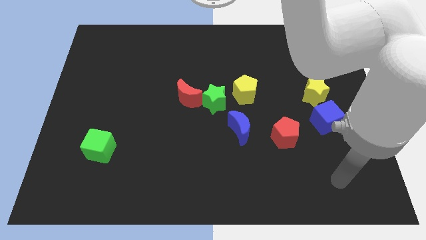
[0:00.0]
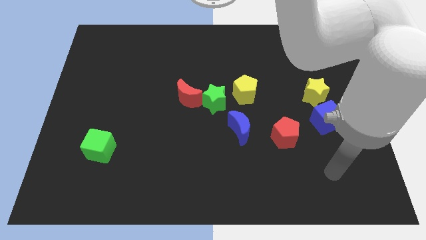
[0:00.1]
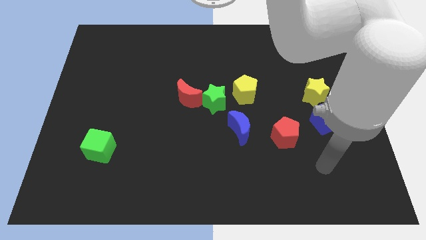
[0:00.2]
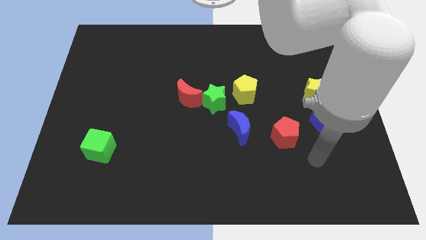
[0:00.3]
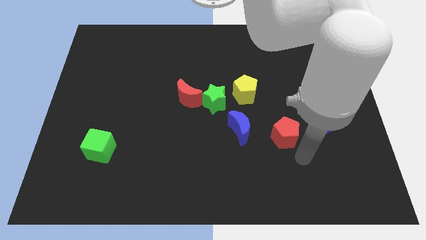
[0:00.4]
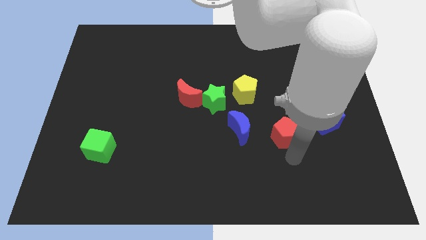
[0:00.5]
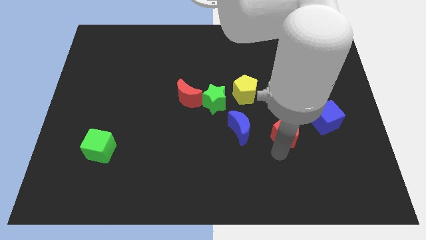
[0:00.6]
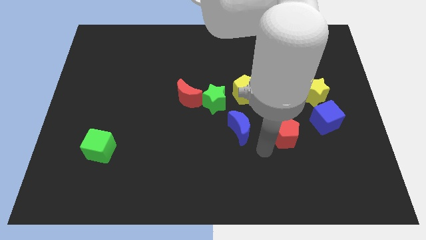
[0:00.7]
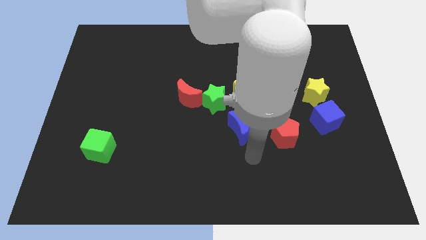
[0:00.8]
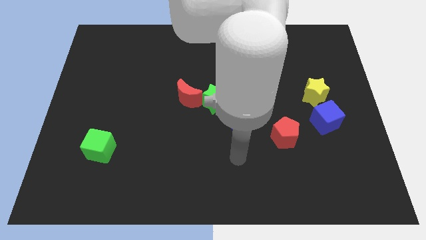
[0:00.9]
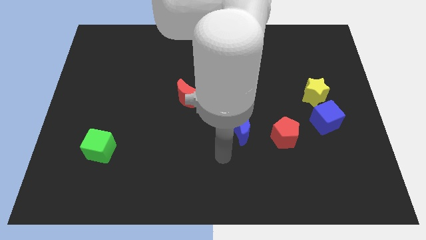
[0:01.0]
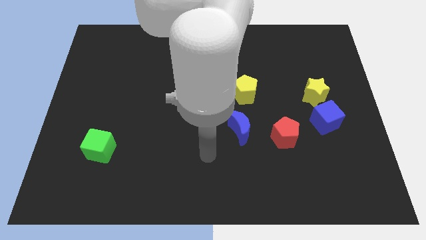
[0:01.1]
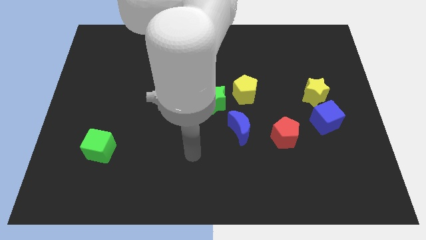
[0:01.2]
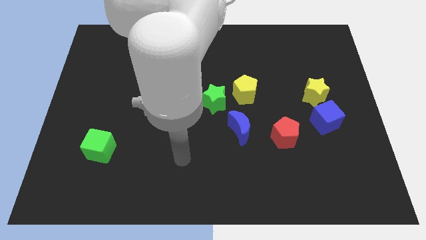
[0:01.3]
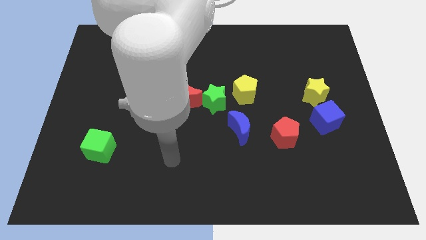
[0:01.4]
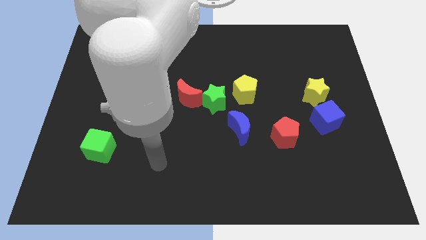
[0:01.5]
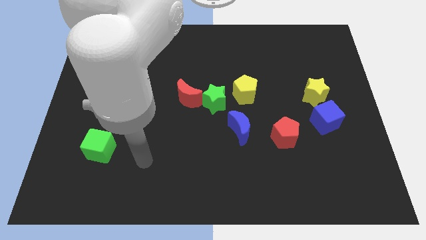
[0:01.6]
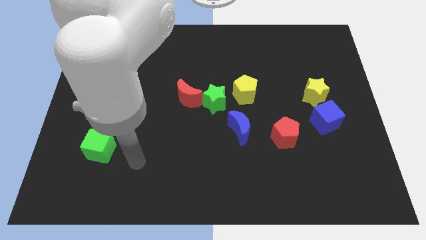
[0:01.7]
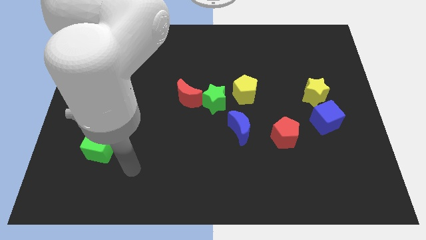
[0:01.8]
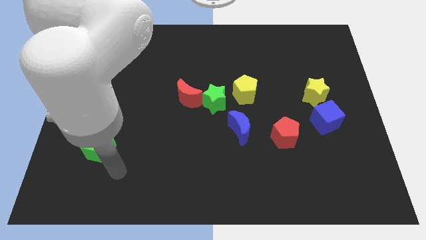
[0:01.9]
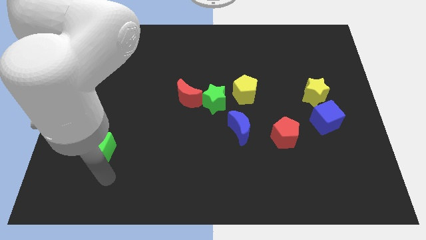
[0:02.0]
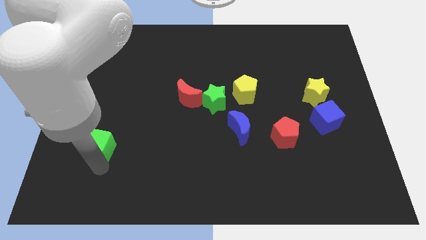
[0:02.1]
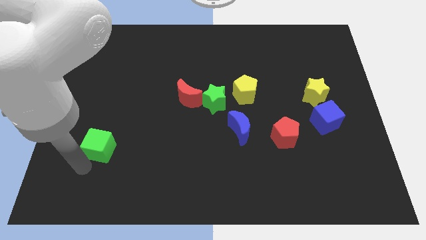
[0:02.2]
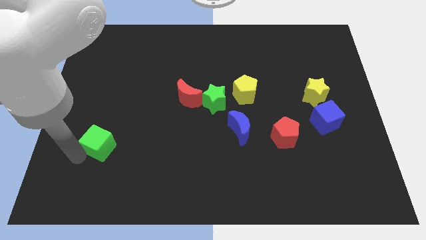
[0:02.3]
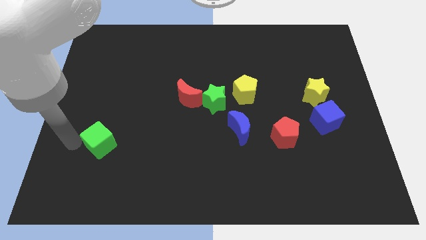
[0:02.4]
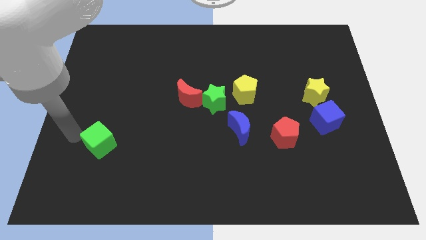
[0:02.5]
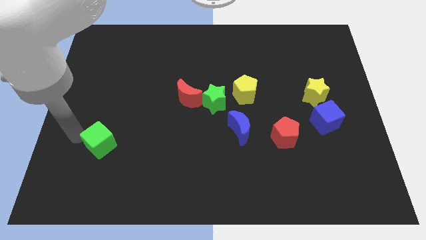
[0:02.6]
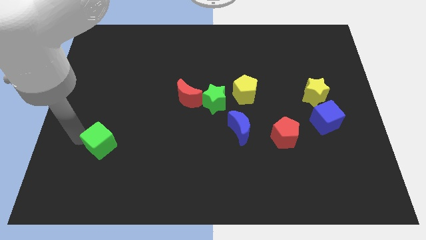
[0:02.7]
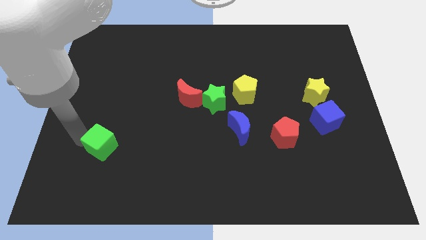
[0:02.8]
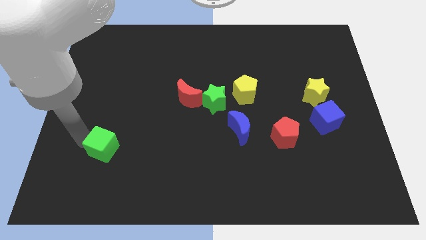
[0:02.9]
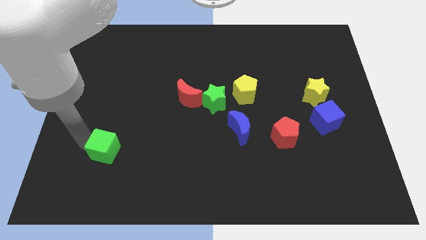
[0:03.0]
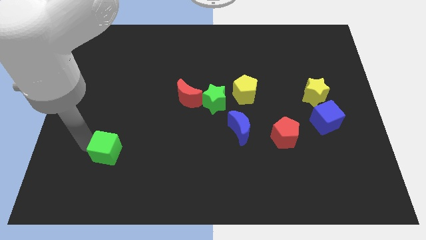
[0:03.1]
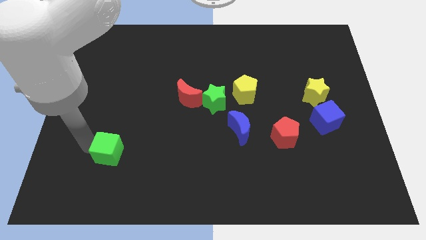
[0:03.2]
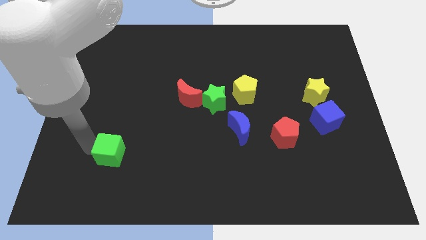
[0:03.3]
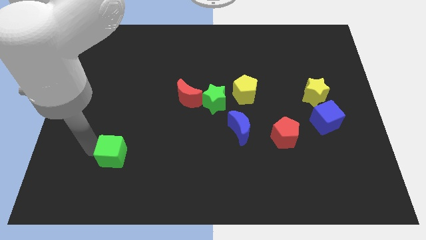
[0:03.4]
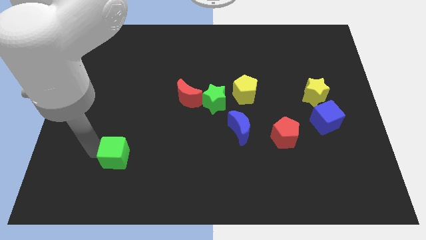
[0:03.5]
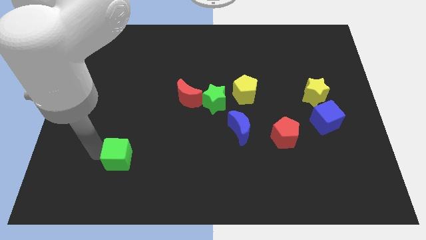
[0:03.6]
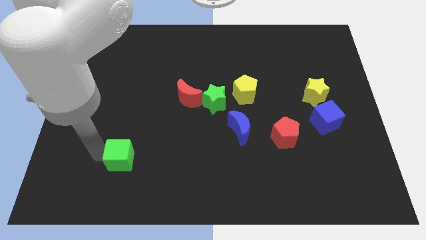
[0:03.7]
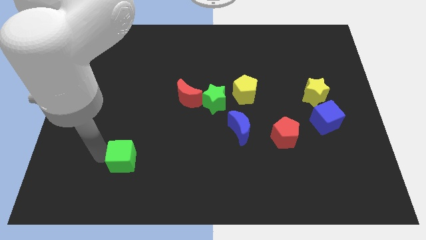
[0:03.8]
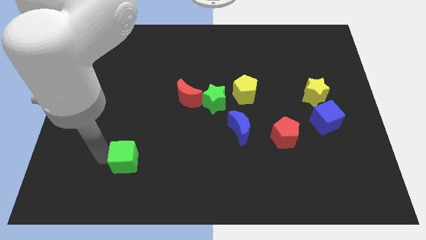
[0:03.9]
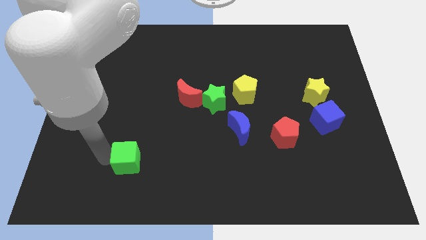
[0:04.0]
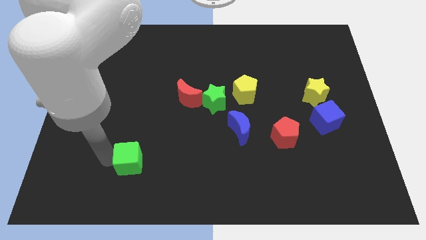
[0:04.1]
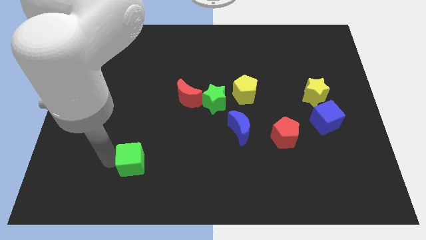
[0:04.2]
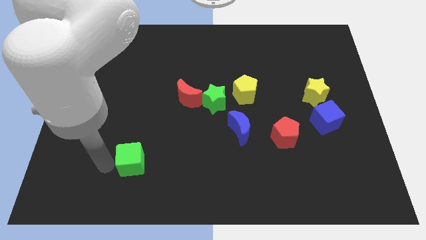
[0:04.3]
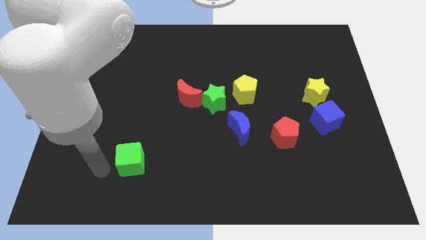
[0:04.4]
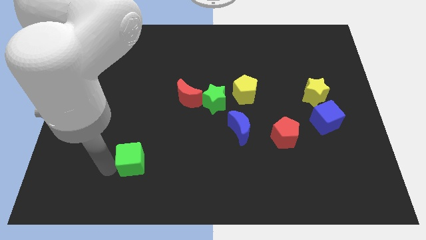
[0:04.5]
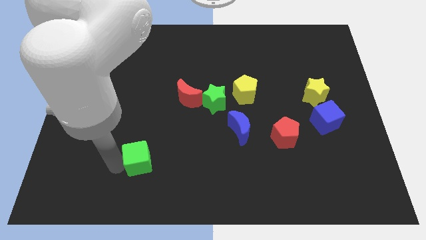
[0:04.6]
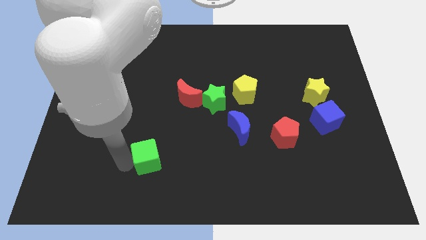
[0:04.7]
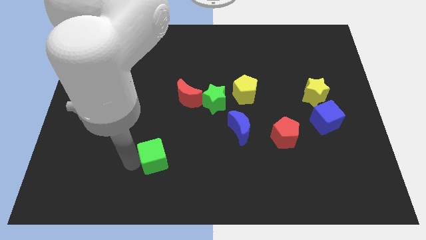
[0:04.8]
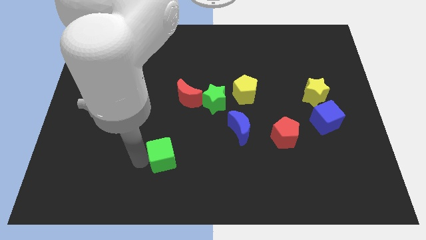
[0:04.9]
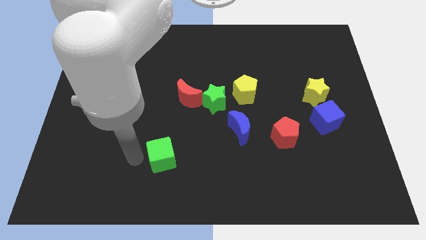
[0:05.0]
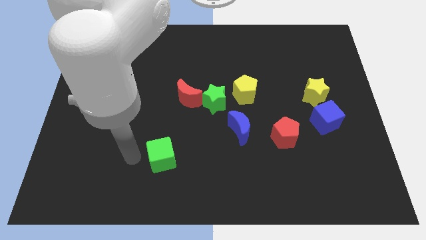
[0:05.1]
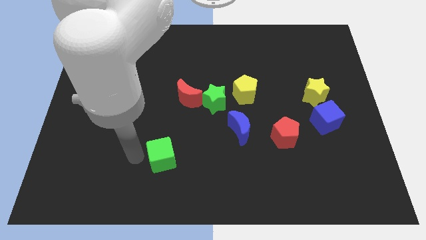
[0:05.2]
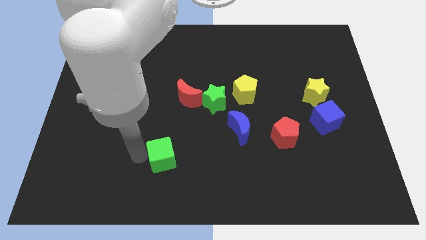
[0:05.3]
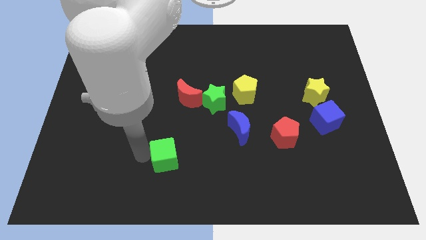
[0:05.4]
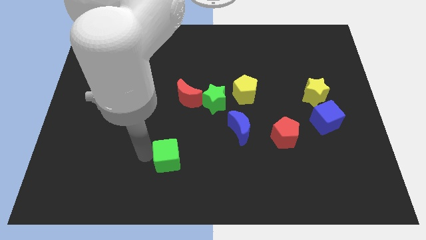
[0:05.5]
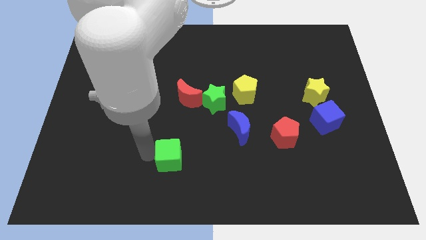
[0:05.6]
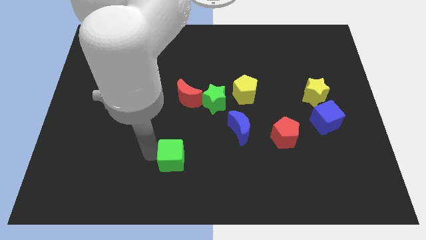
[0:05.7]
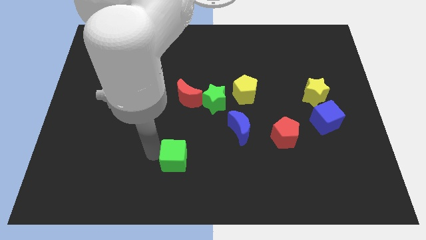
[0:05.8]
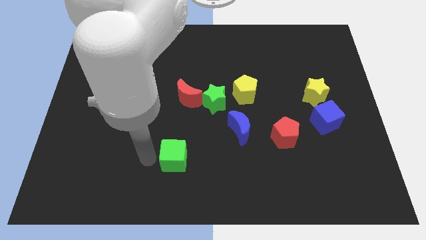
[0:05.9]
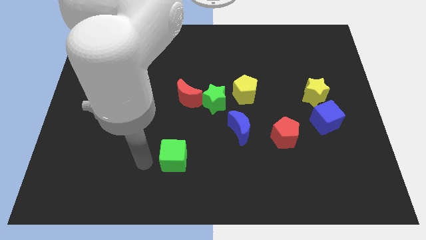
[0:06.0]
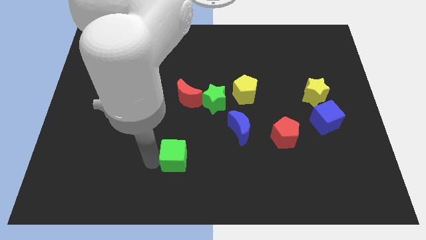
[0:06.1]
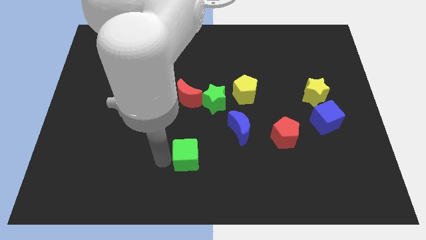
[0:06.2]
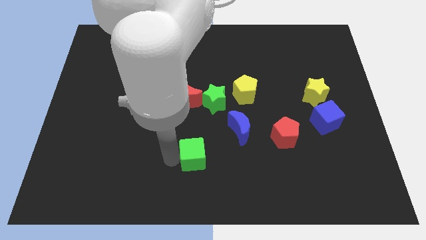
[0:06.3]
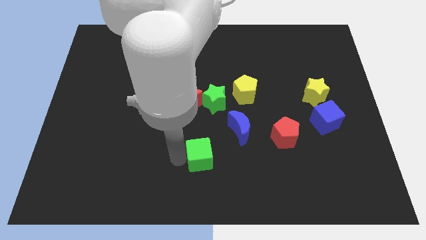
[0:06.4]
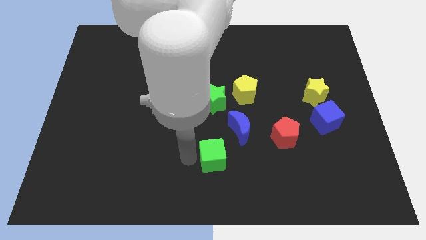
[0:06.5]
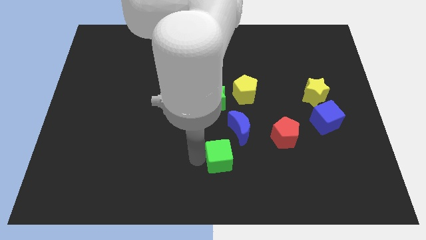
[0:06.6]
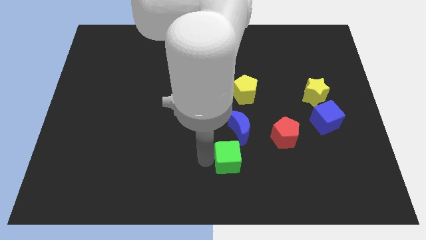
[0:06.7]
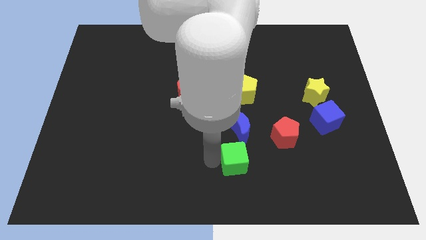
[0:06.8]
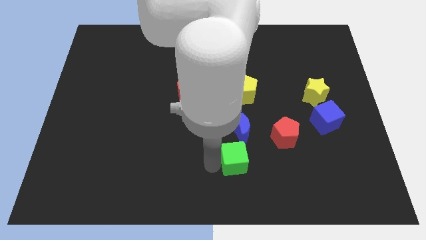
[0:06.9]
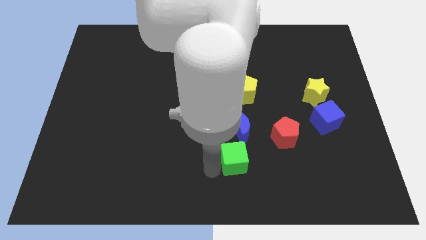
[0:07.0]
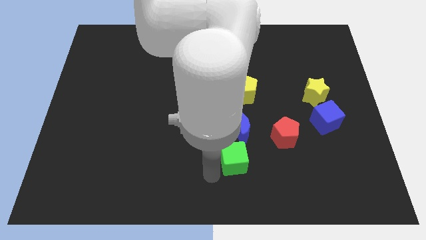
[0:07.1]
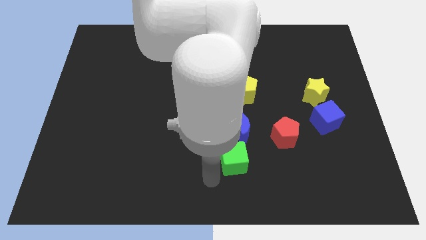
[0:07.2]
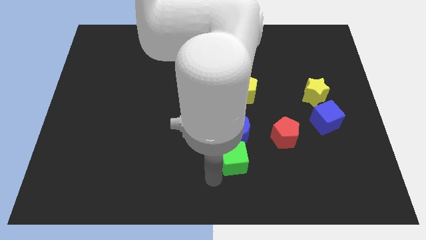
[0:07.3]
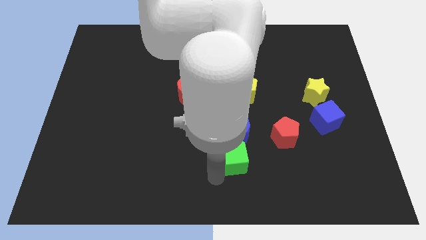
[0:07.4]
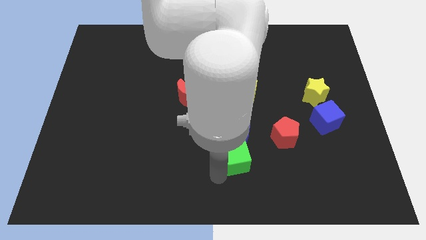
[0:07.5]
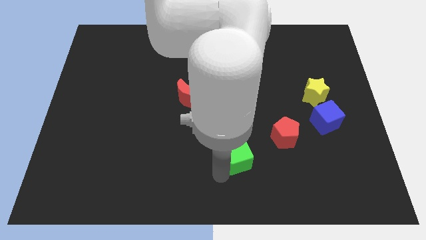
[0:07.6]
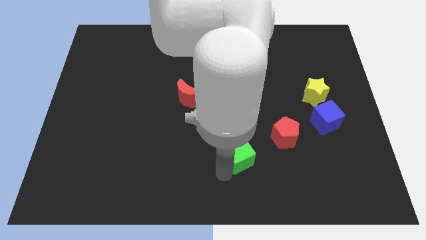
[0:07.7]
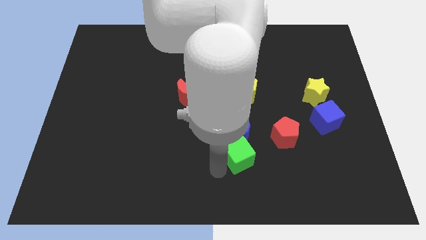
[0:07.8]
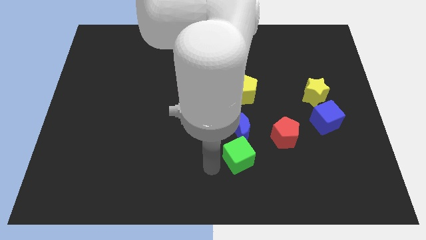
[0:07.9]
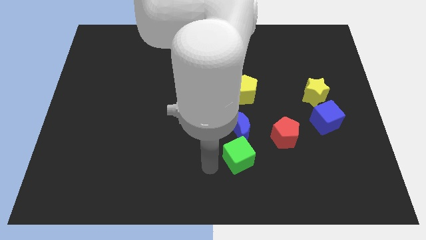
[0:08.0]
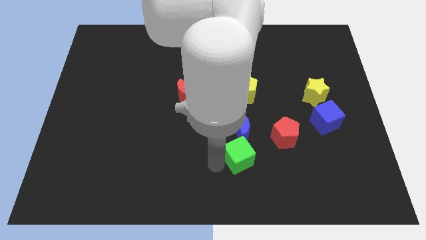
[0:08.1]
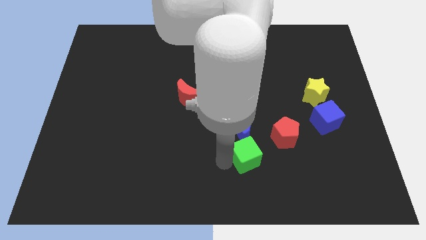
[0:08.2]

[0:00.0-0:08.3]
slide the green cube diagonally down and to the right of the blue moon
